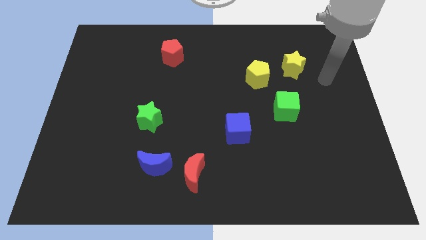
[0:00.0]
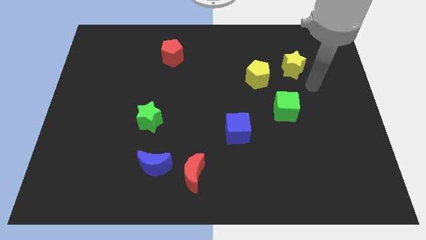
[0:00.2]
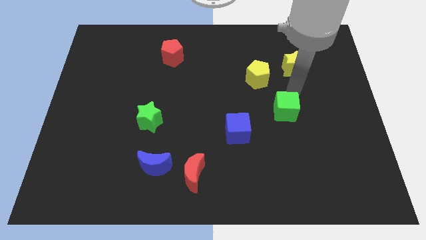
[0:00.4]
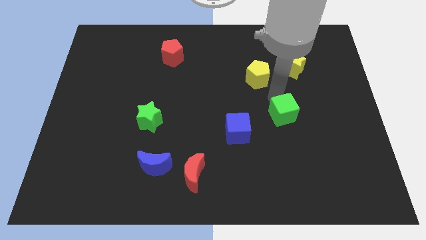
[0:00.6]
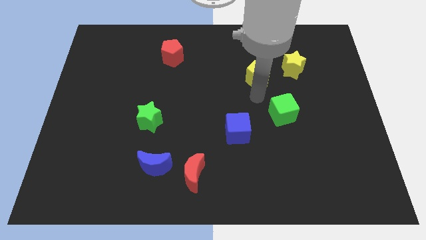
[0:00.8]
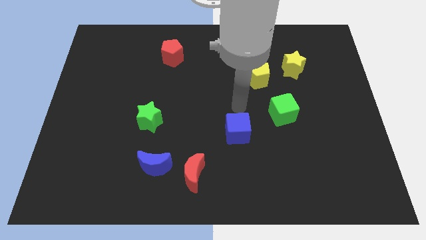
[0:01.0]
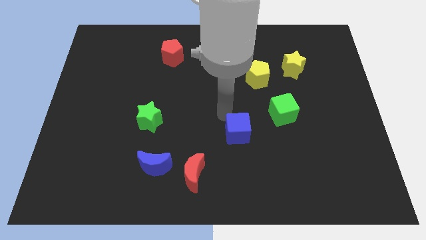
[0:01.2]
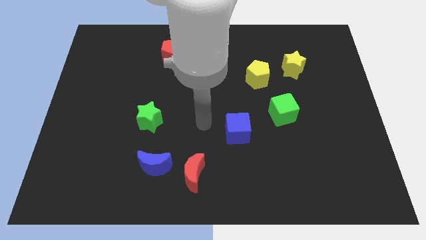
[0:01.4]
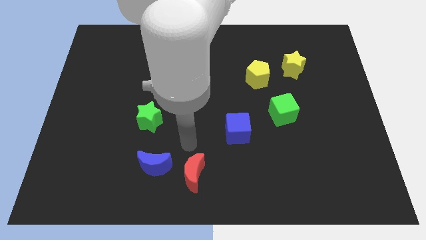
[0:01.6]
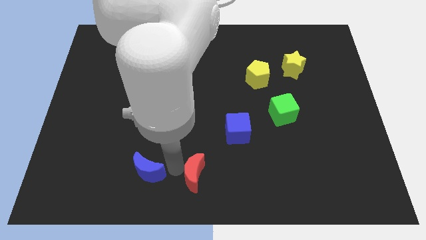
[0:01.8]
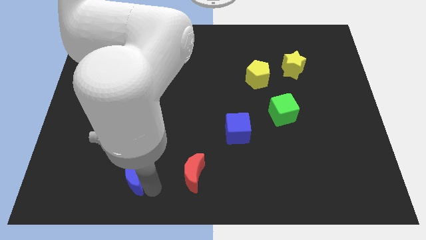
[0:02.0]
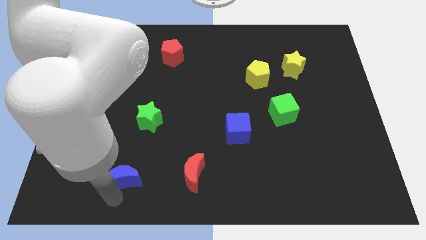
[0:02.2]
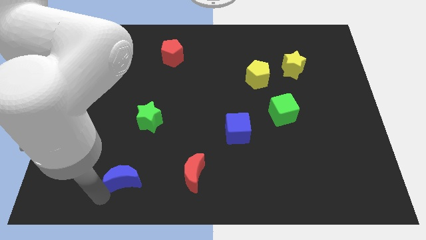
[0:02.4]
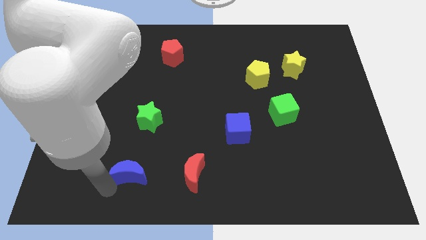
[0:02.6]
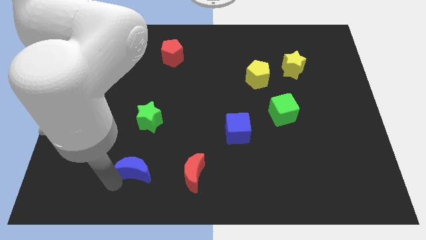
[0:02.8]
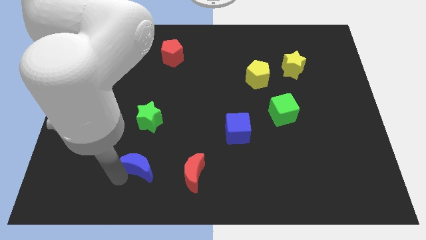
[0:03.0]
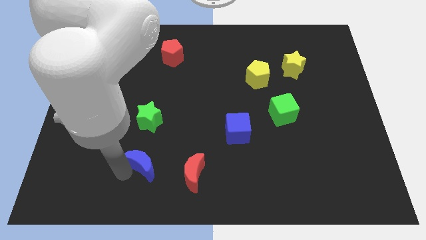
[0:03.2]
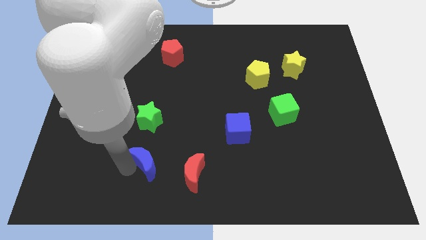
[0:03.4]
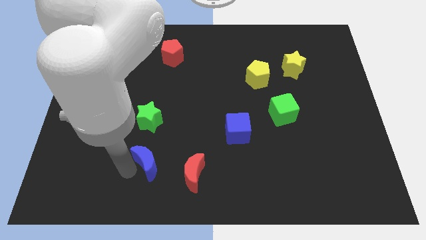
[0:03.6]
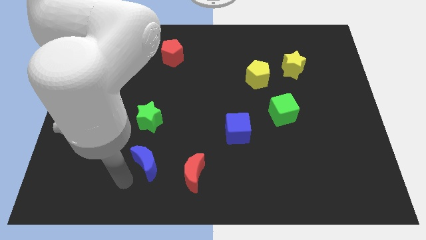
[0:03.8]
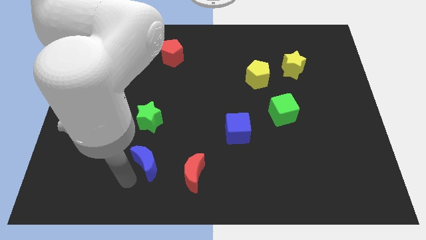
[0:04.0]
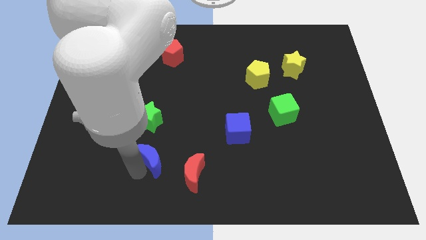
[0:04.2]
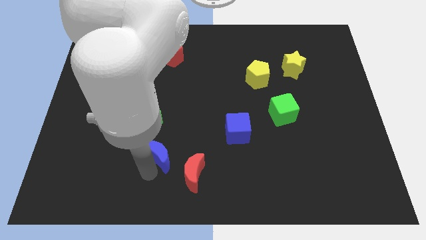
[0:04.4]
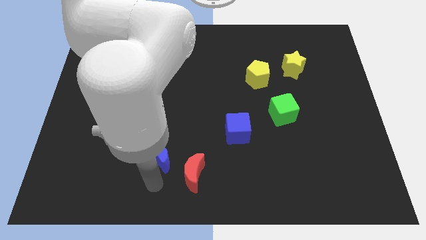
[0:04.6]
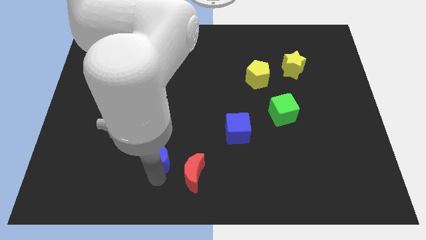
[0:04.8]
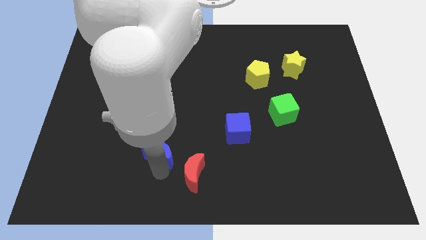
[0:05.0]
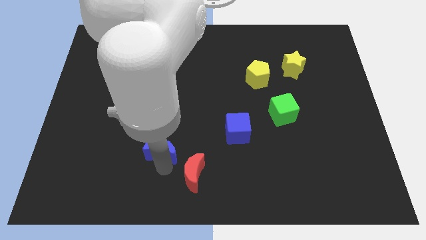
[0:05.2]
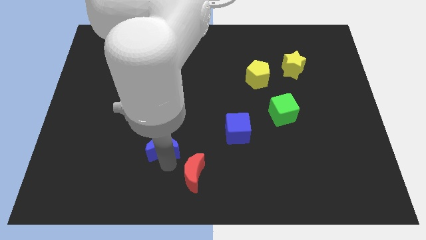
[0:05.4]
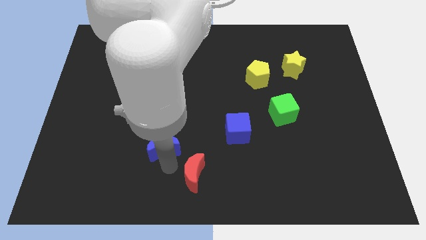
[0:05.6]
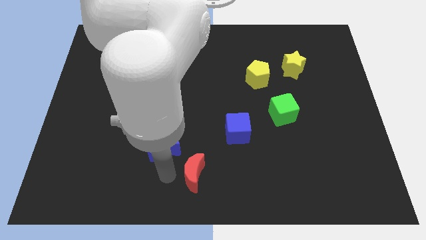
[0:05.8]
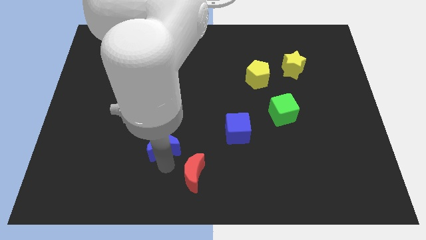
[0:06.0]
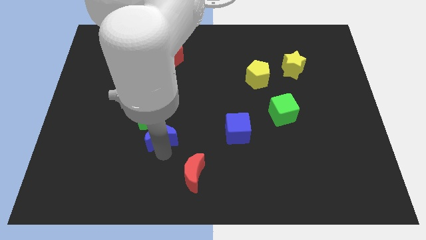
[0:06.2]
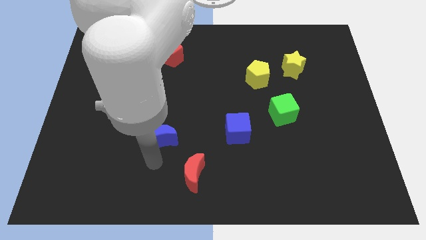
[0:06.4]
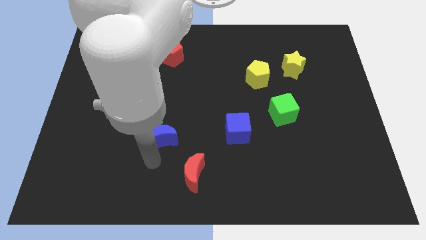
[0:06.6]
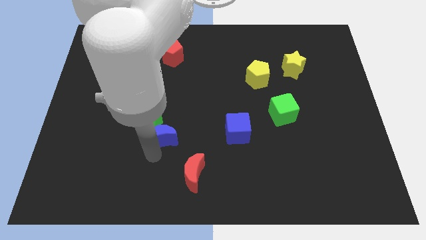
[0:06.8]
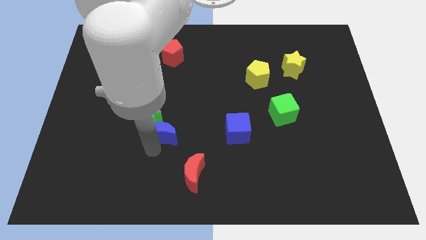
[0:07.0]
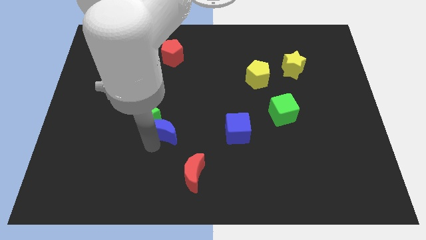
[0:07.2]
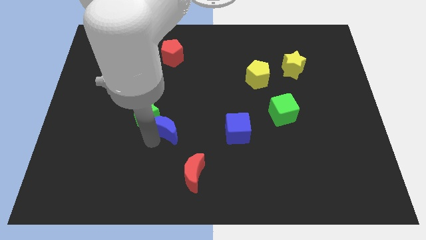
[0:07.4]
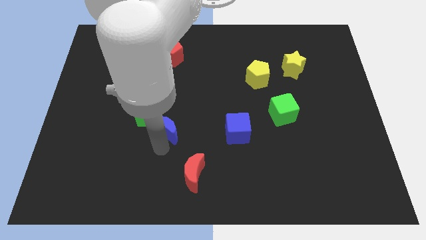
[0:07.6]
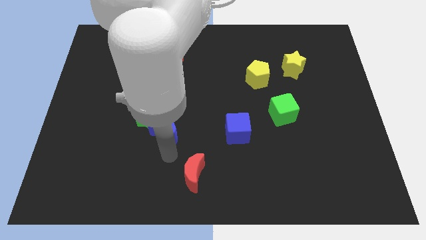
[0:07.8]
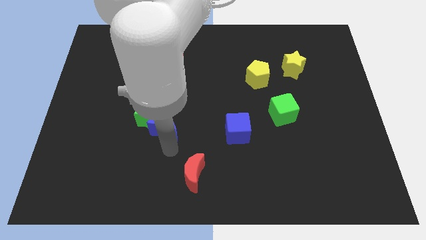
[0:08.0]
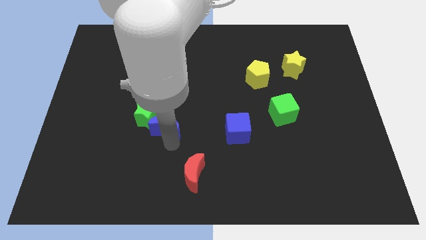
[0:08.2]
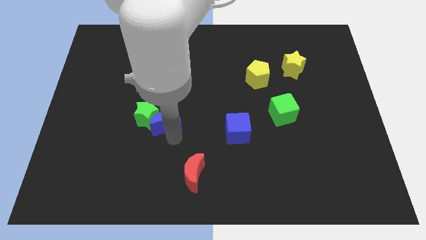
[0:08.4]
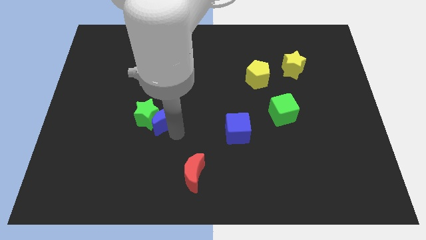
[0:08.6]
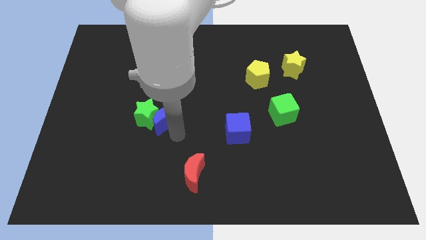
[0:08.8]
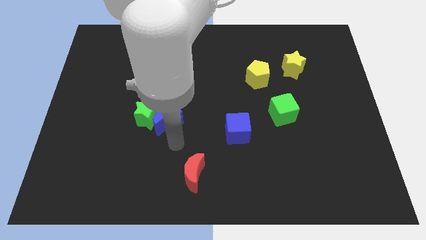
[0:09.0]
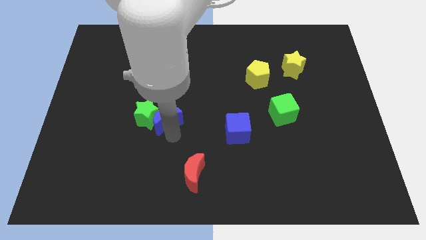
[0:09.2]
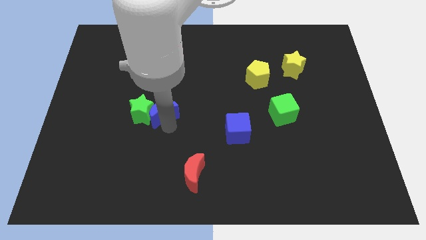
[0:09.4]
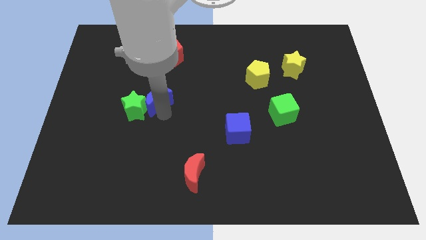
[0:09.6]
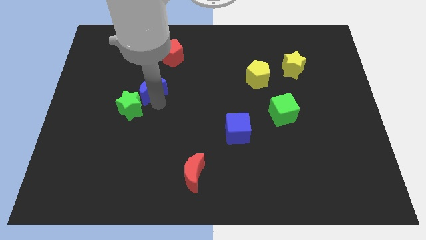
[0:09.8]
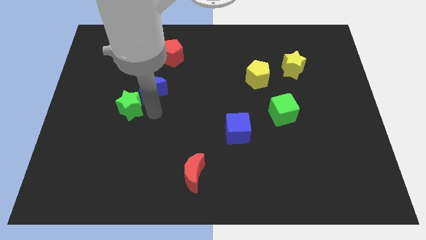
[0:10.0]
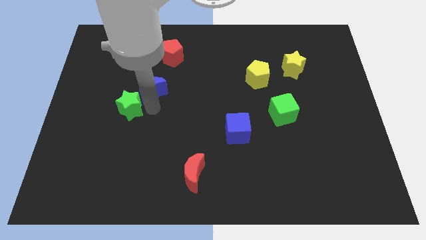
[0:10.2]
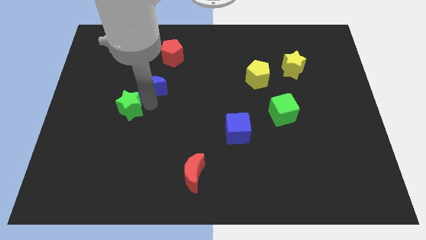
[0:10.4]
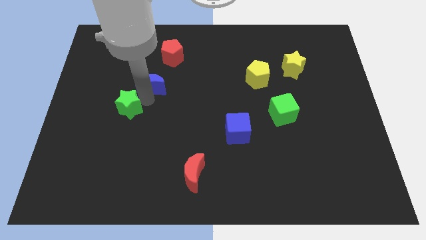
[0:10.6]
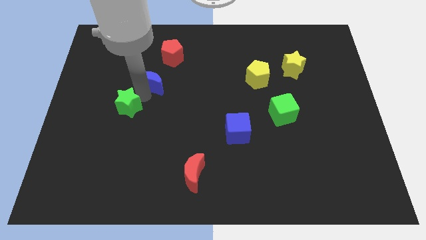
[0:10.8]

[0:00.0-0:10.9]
move the blue moon diagonally down and to the left of the red pentagon

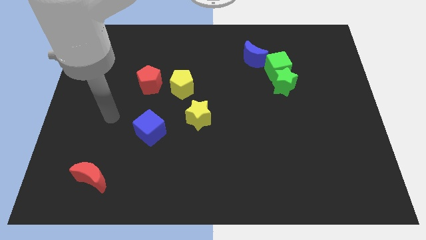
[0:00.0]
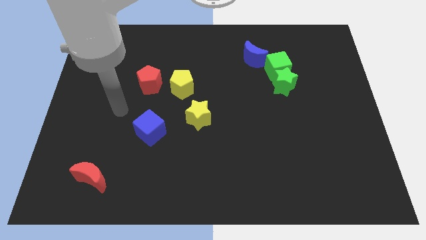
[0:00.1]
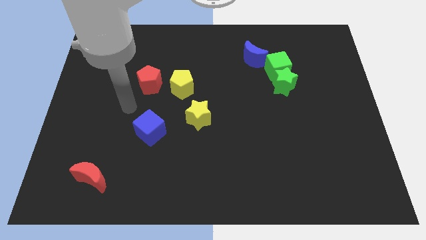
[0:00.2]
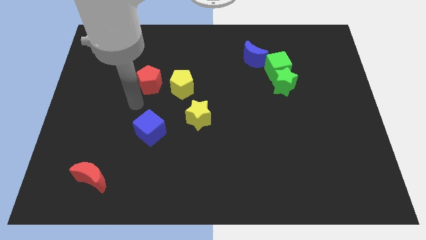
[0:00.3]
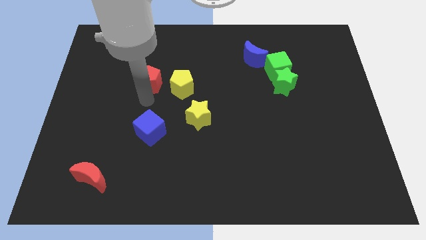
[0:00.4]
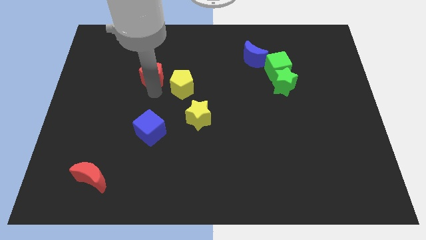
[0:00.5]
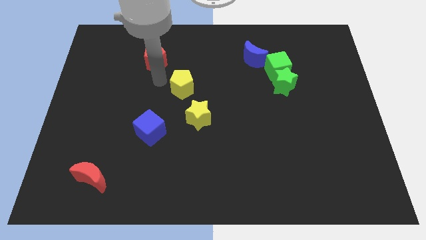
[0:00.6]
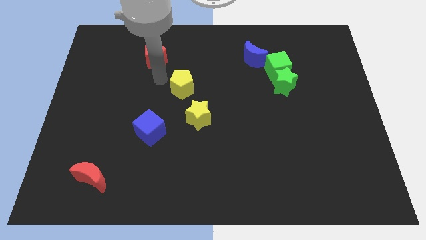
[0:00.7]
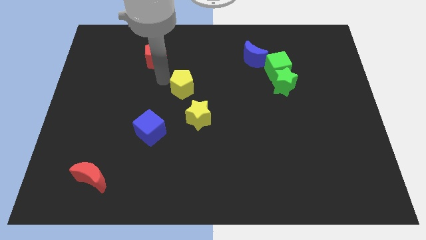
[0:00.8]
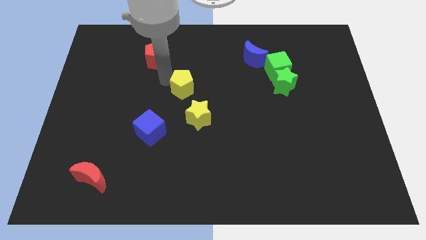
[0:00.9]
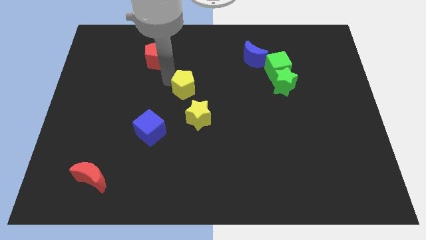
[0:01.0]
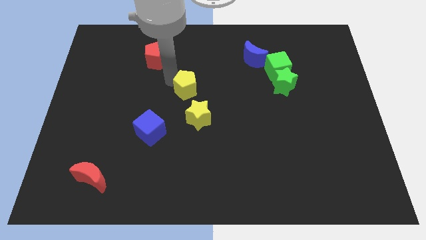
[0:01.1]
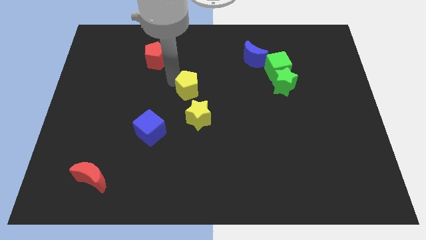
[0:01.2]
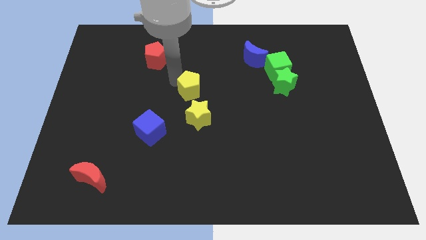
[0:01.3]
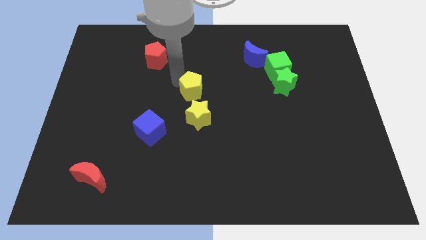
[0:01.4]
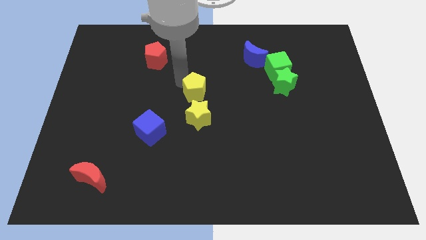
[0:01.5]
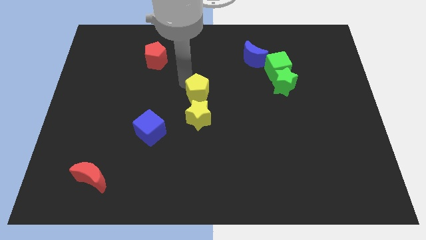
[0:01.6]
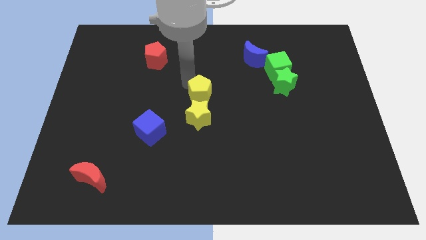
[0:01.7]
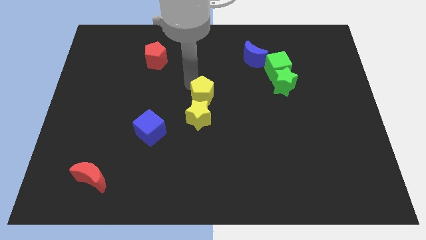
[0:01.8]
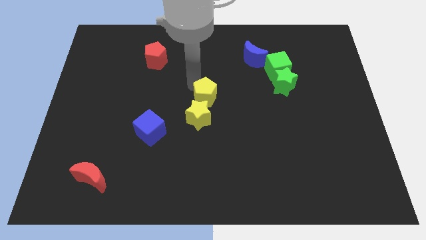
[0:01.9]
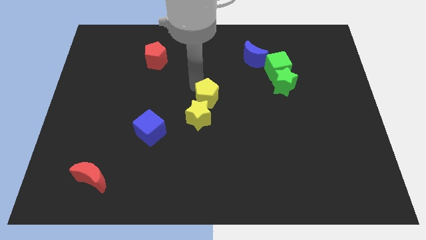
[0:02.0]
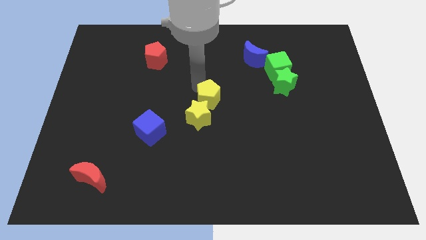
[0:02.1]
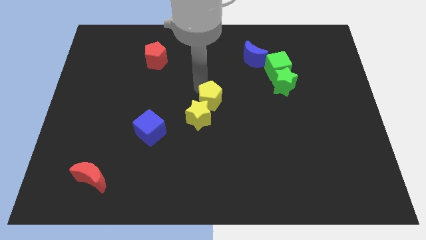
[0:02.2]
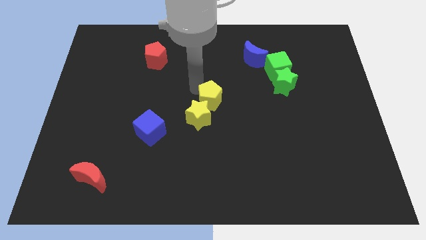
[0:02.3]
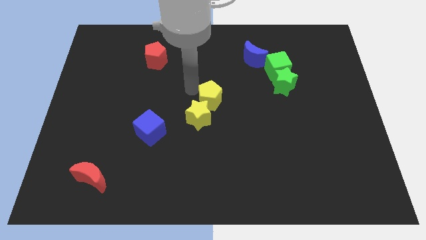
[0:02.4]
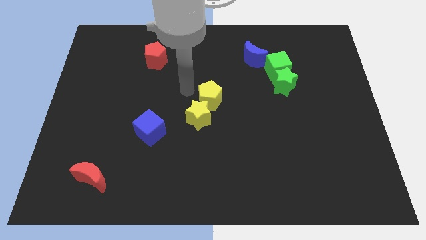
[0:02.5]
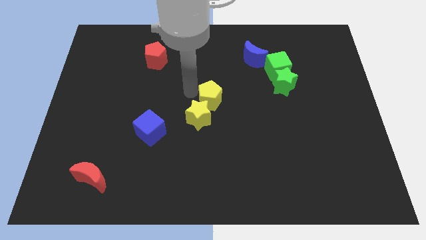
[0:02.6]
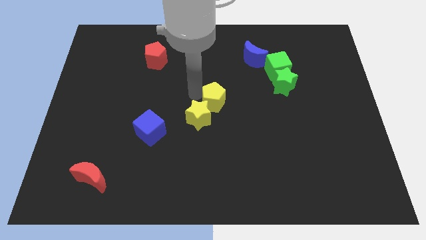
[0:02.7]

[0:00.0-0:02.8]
move the yellow pentagon right of the yellow star
